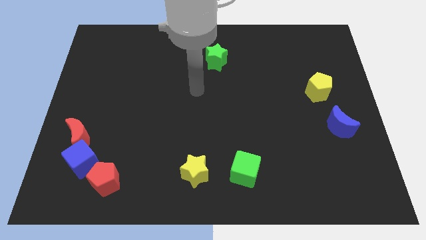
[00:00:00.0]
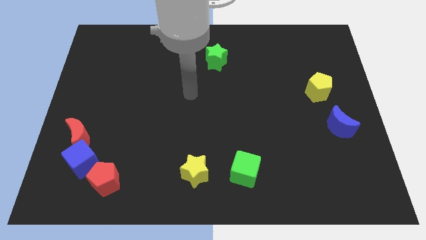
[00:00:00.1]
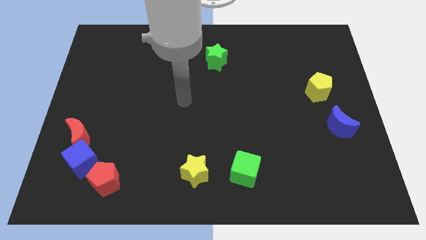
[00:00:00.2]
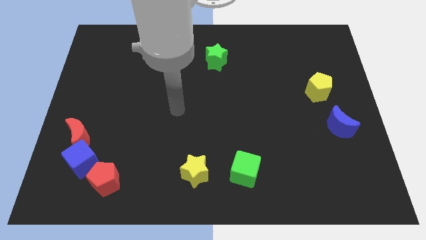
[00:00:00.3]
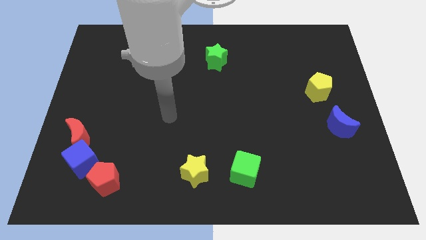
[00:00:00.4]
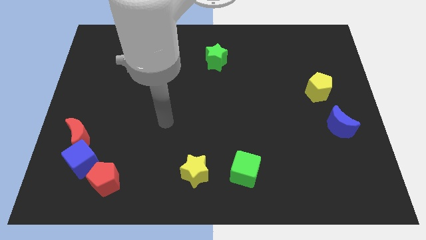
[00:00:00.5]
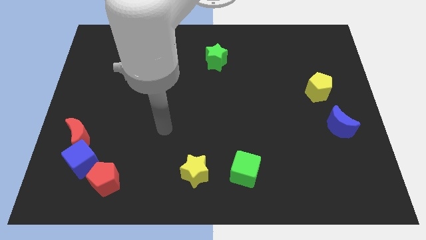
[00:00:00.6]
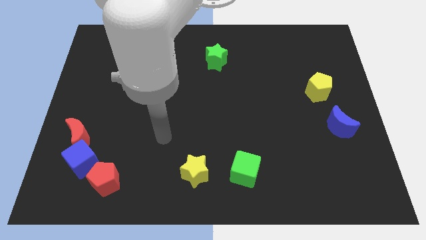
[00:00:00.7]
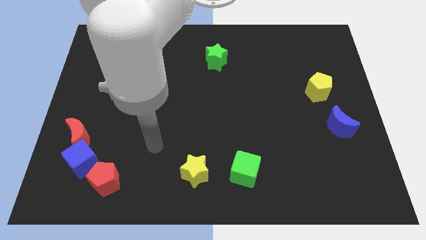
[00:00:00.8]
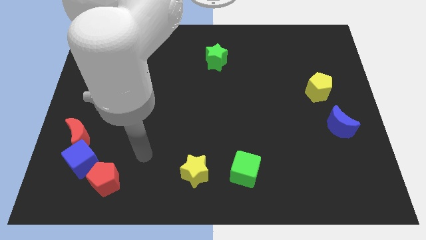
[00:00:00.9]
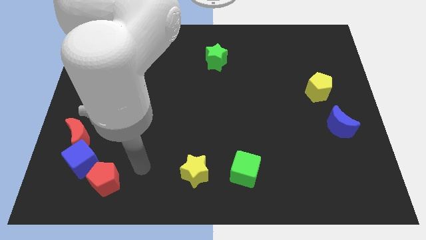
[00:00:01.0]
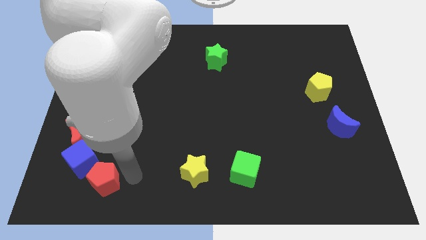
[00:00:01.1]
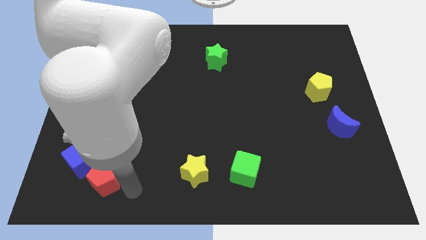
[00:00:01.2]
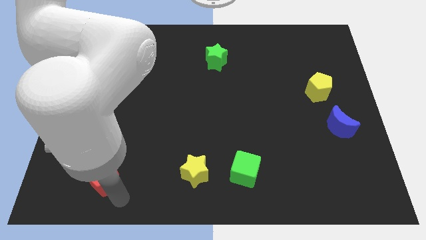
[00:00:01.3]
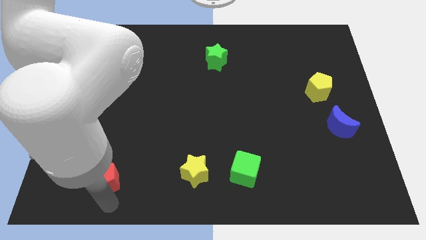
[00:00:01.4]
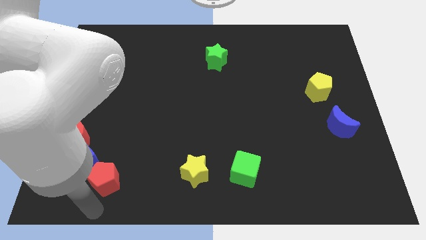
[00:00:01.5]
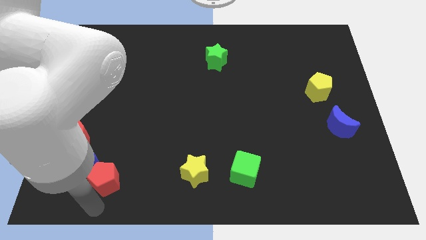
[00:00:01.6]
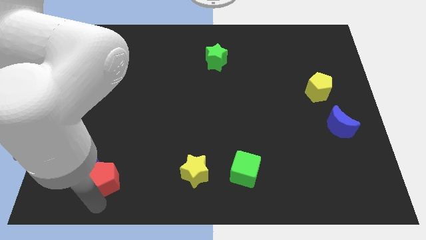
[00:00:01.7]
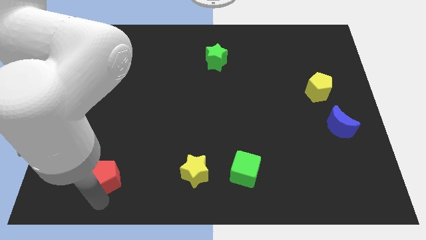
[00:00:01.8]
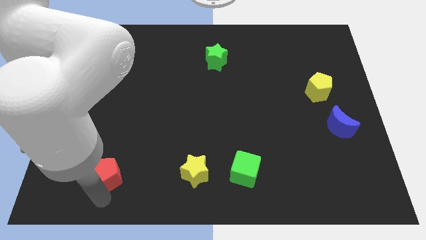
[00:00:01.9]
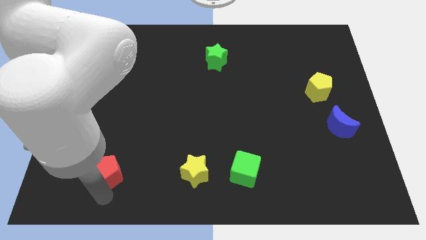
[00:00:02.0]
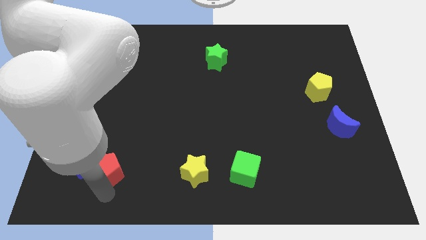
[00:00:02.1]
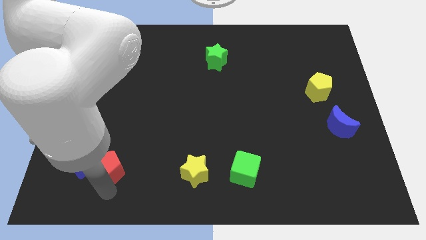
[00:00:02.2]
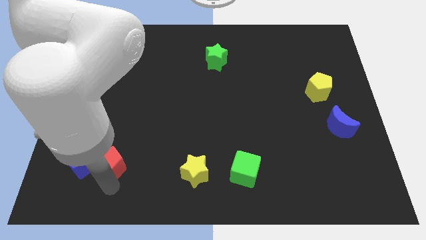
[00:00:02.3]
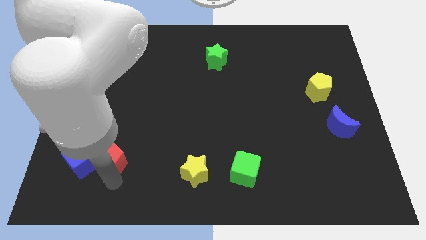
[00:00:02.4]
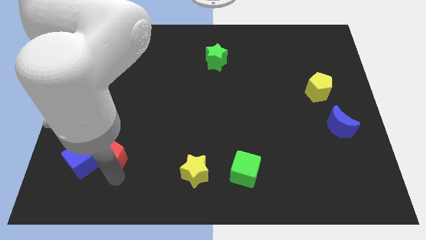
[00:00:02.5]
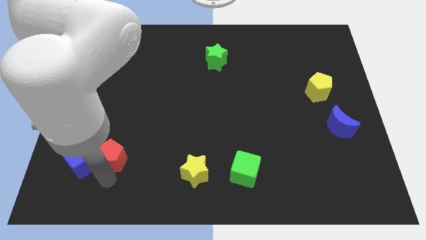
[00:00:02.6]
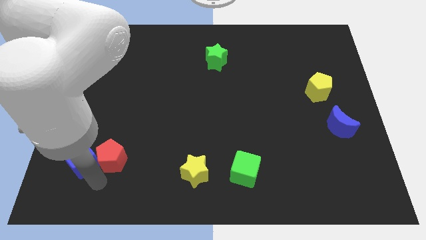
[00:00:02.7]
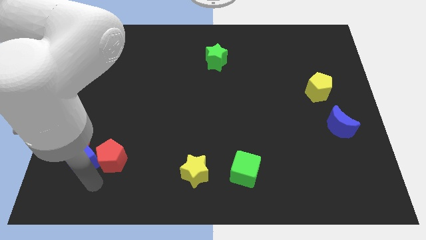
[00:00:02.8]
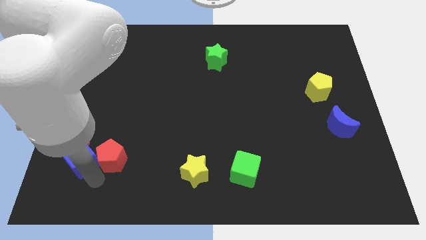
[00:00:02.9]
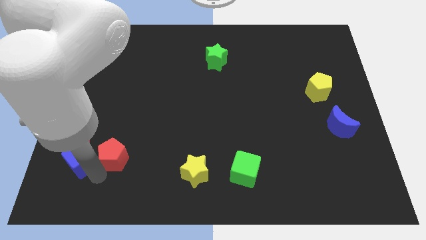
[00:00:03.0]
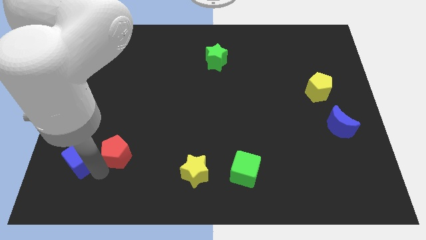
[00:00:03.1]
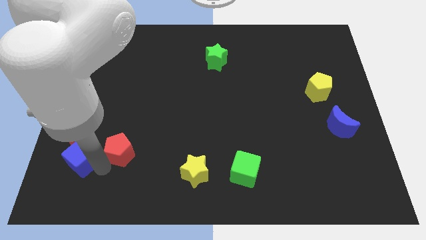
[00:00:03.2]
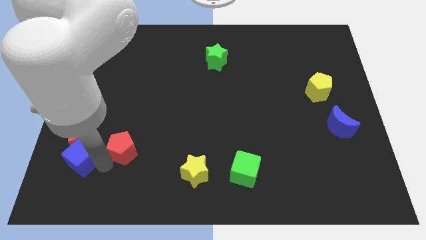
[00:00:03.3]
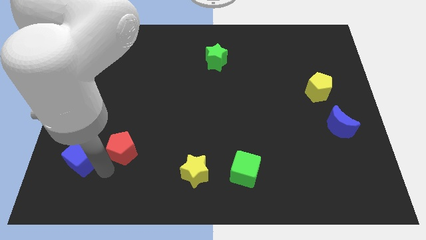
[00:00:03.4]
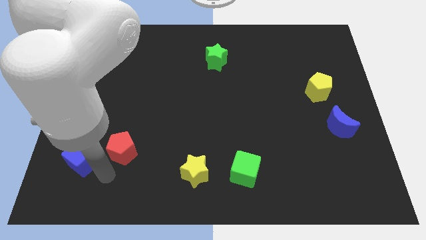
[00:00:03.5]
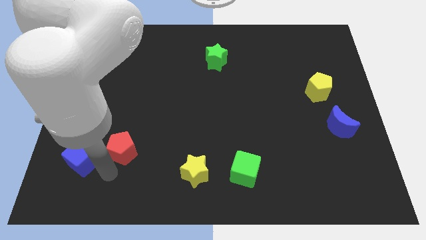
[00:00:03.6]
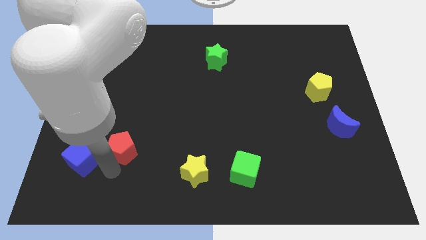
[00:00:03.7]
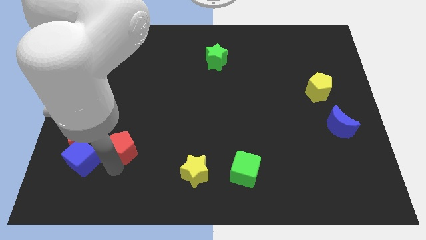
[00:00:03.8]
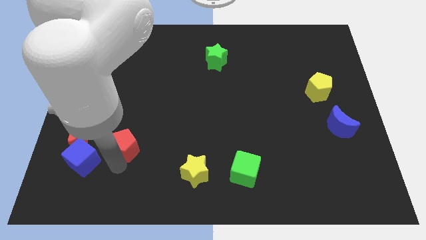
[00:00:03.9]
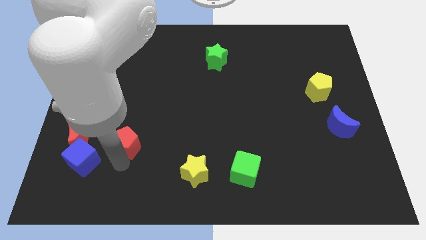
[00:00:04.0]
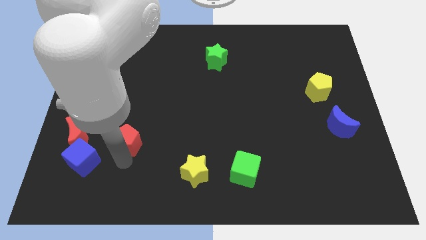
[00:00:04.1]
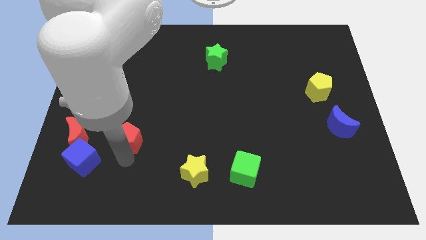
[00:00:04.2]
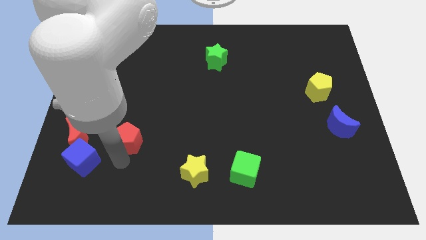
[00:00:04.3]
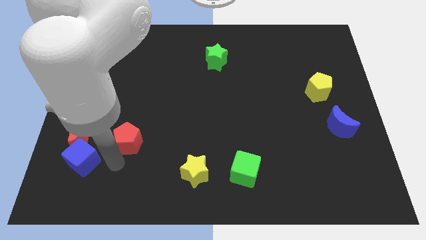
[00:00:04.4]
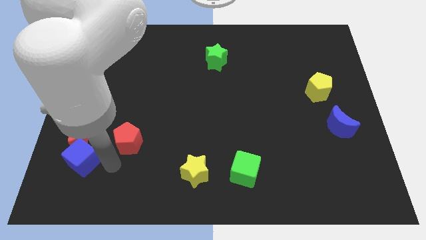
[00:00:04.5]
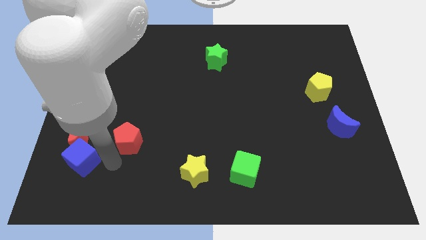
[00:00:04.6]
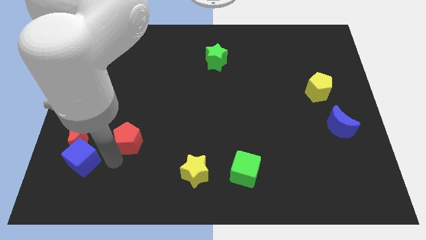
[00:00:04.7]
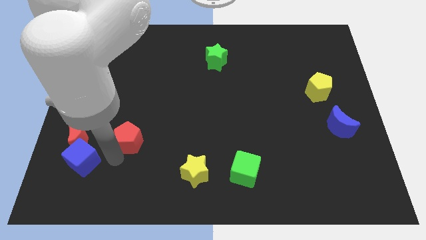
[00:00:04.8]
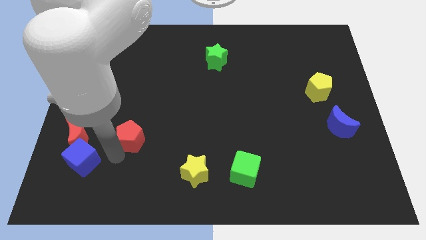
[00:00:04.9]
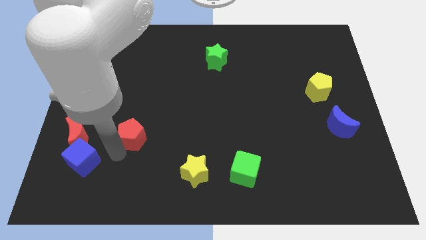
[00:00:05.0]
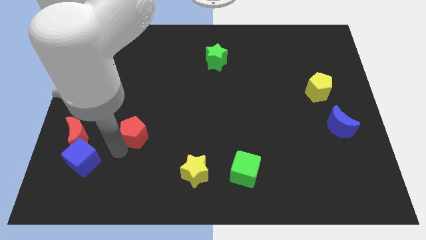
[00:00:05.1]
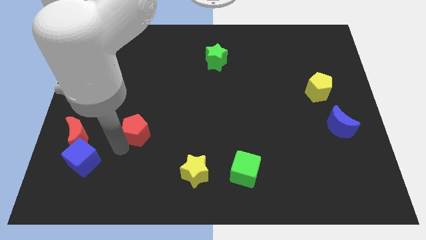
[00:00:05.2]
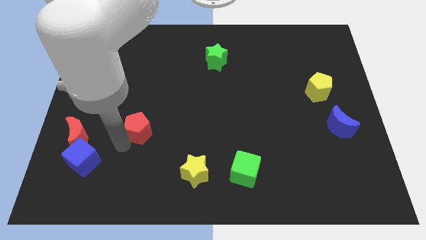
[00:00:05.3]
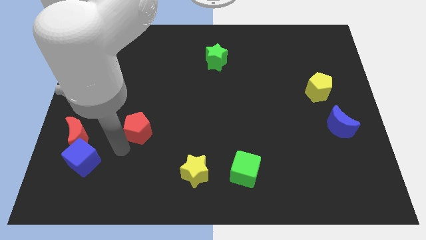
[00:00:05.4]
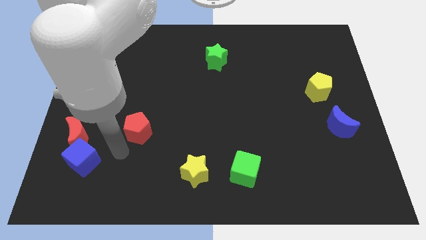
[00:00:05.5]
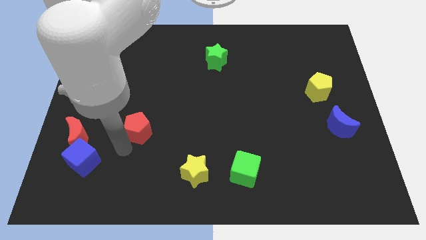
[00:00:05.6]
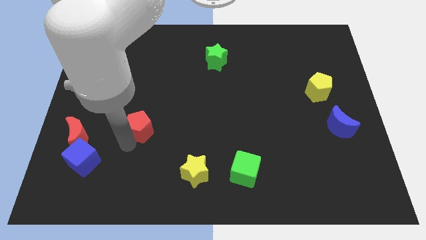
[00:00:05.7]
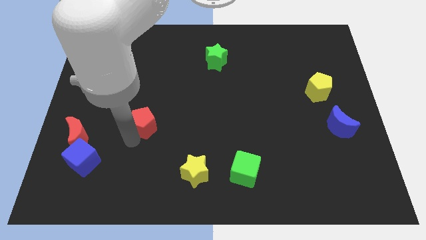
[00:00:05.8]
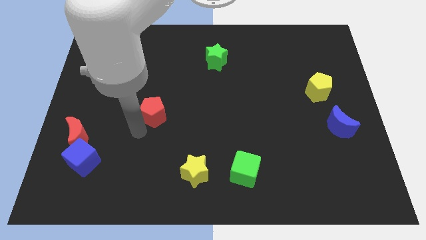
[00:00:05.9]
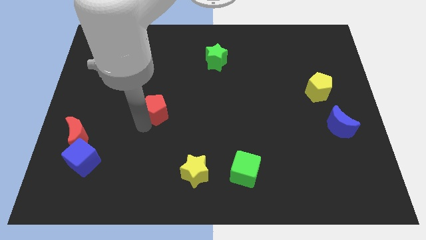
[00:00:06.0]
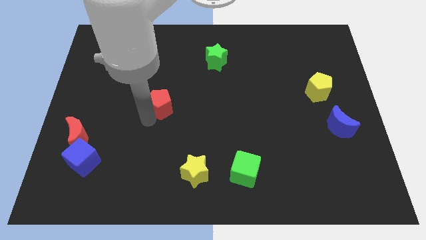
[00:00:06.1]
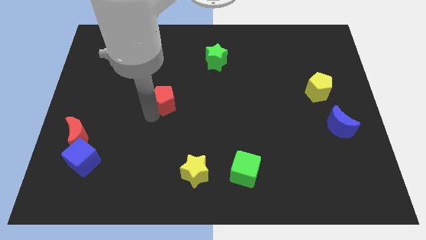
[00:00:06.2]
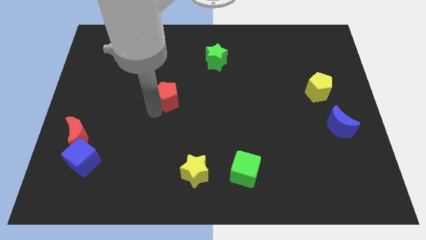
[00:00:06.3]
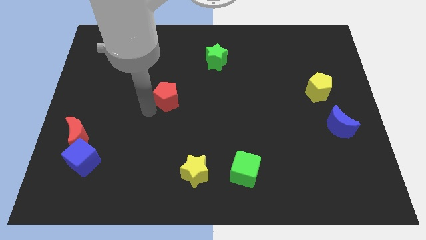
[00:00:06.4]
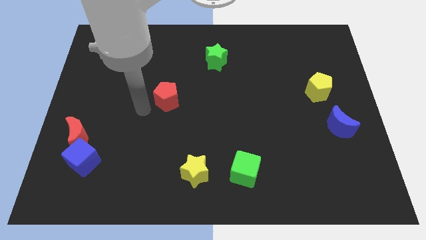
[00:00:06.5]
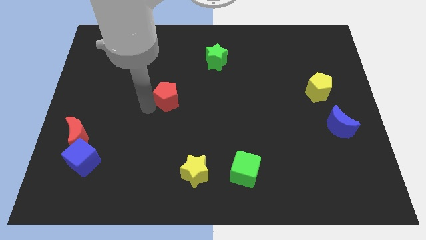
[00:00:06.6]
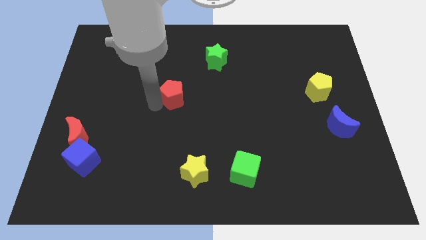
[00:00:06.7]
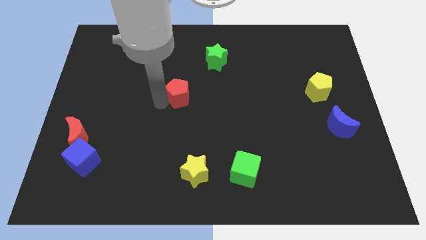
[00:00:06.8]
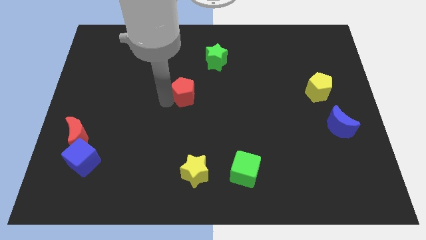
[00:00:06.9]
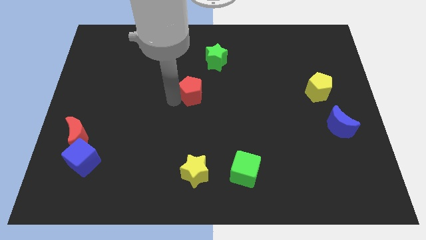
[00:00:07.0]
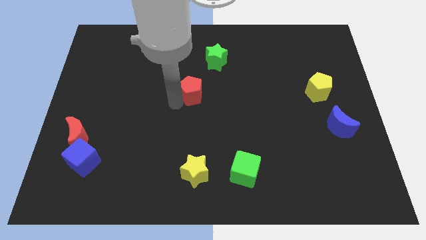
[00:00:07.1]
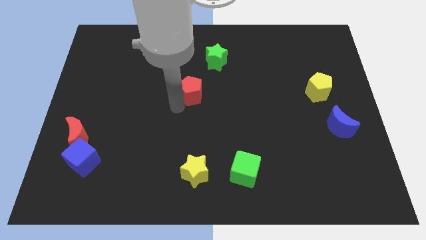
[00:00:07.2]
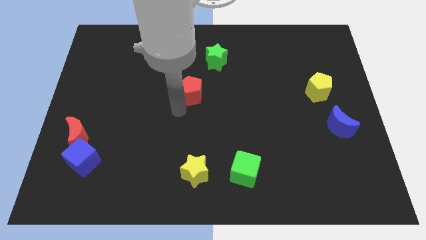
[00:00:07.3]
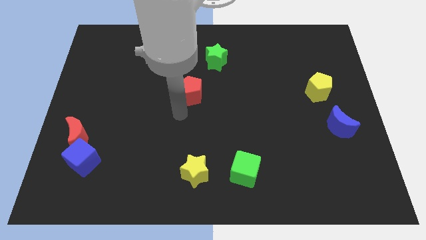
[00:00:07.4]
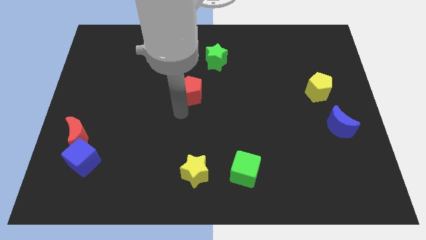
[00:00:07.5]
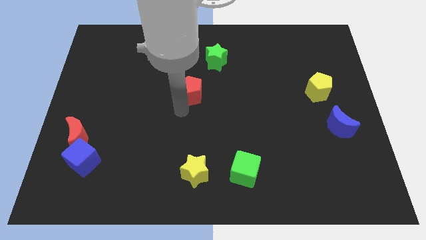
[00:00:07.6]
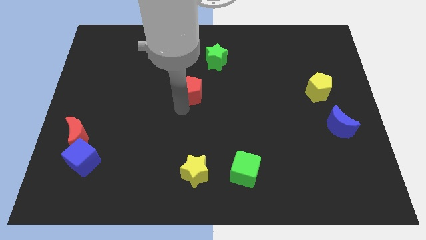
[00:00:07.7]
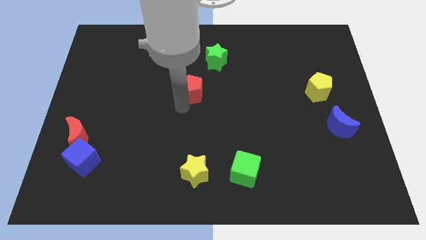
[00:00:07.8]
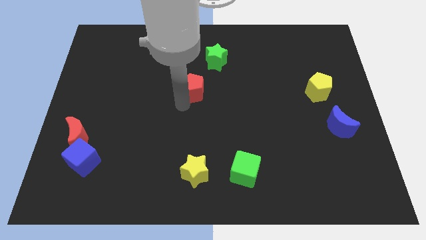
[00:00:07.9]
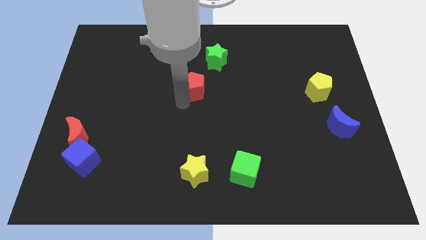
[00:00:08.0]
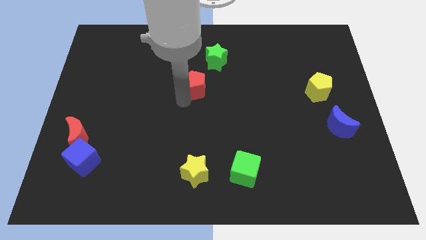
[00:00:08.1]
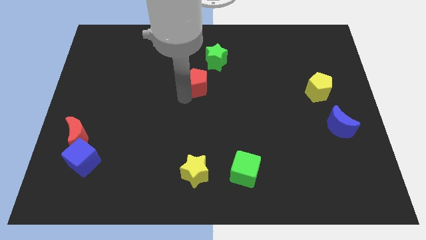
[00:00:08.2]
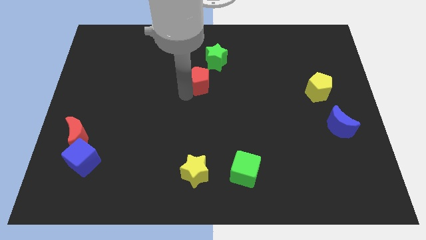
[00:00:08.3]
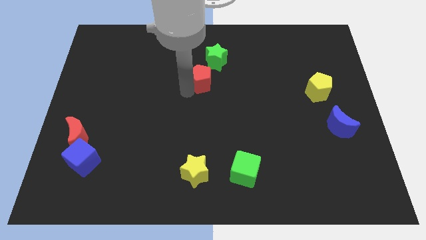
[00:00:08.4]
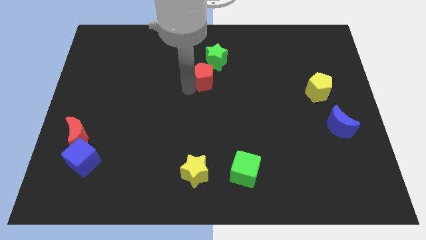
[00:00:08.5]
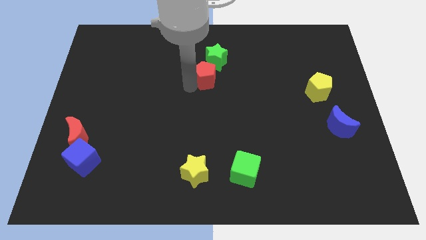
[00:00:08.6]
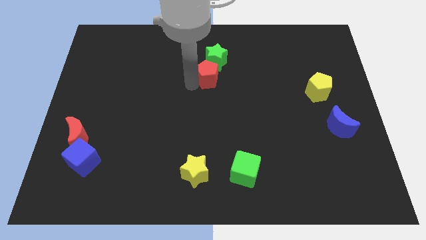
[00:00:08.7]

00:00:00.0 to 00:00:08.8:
push the red pentagon to the green star
